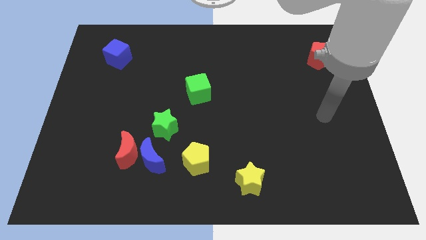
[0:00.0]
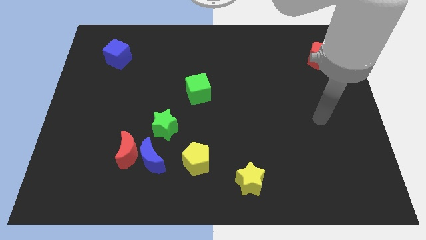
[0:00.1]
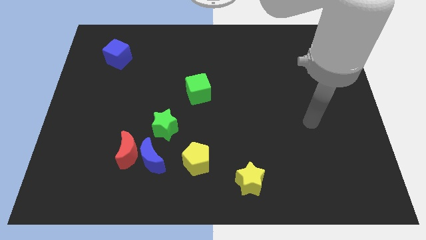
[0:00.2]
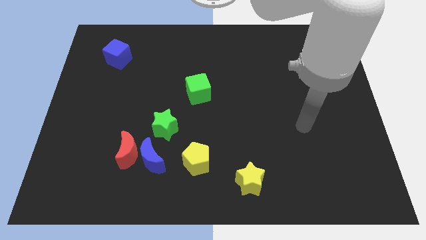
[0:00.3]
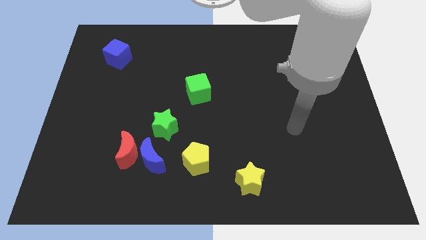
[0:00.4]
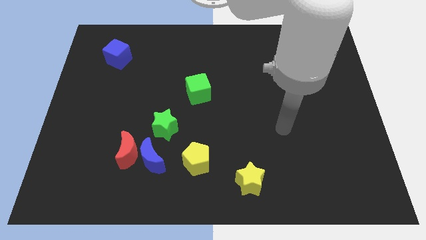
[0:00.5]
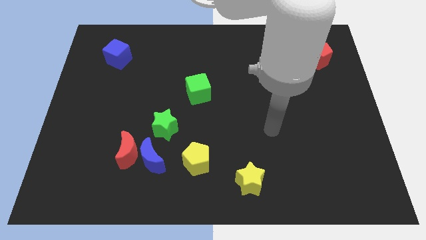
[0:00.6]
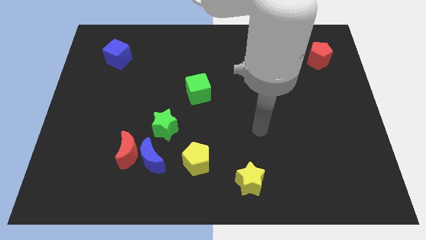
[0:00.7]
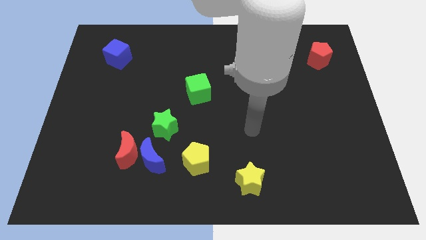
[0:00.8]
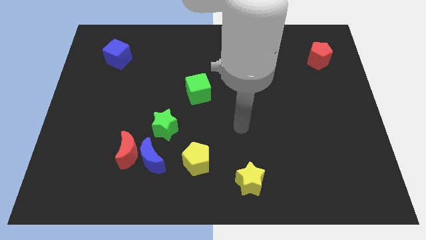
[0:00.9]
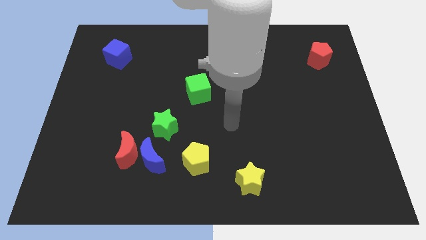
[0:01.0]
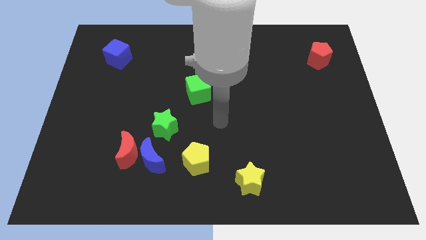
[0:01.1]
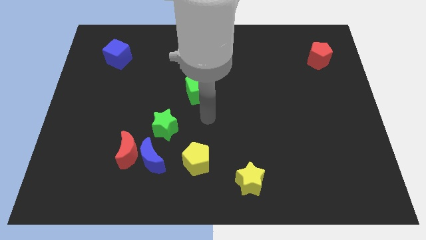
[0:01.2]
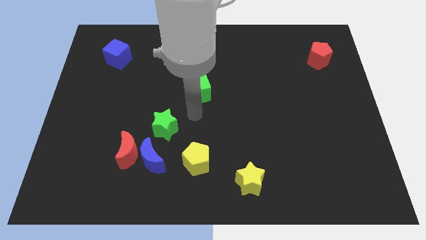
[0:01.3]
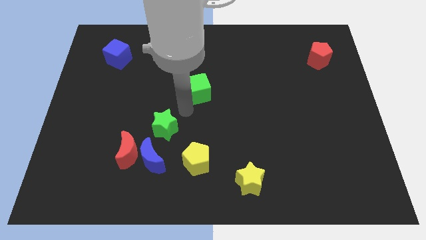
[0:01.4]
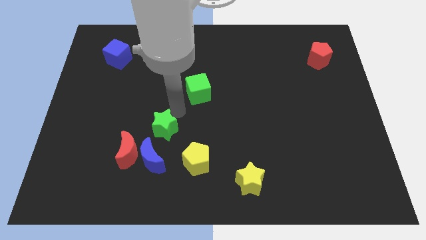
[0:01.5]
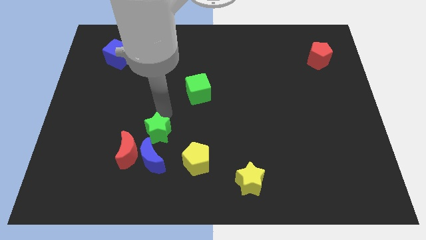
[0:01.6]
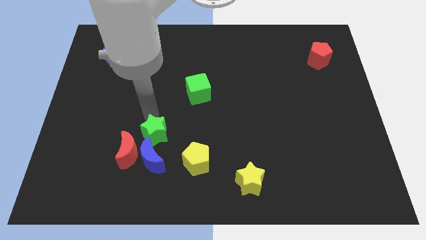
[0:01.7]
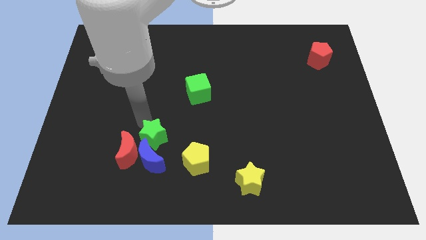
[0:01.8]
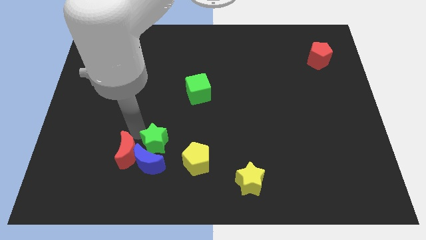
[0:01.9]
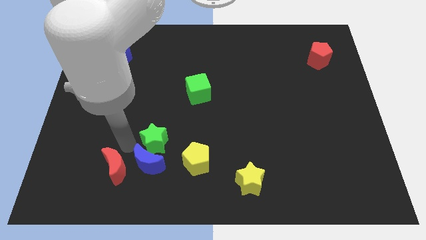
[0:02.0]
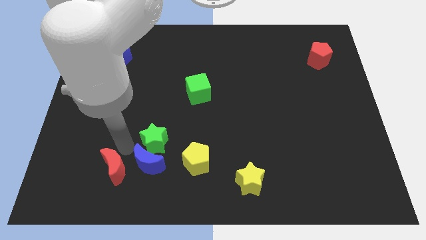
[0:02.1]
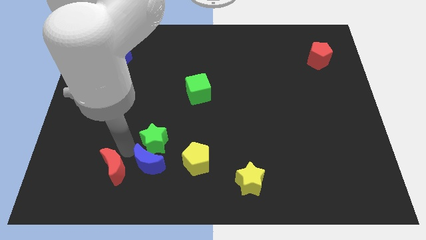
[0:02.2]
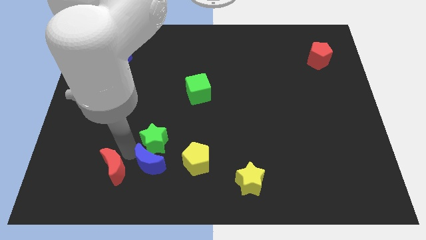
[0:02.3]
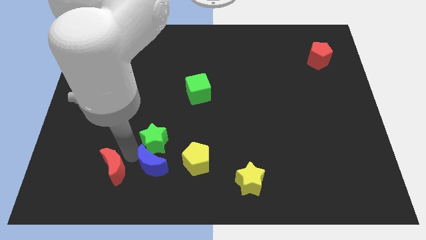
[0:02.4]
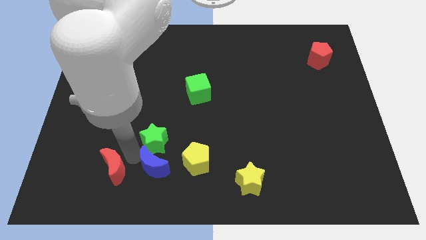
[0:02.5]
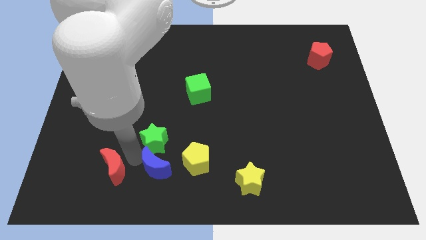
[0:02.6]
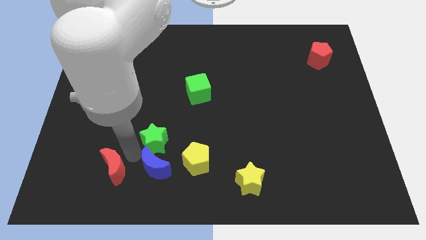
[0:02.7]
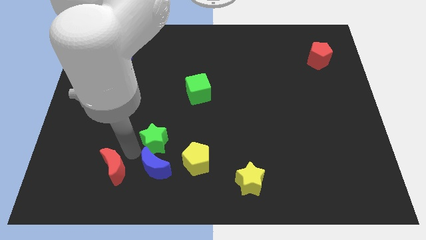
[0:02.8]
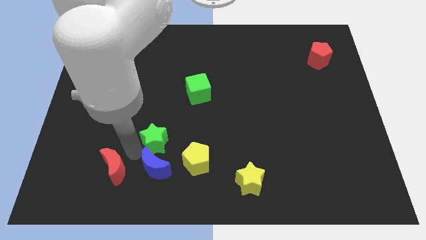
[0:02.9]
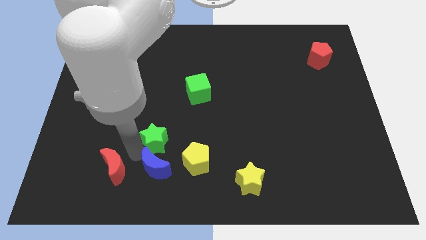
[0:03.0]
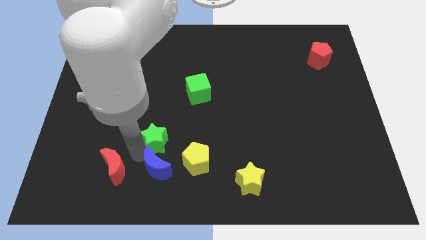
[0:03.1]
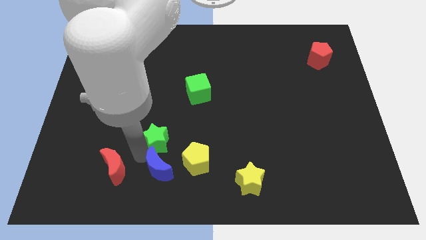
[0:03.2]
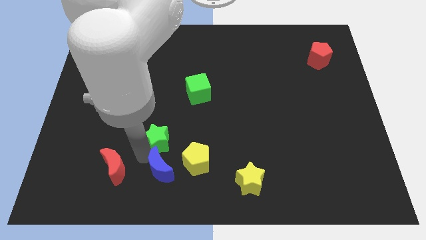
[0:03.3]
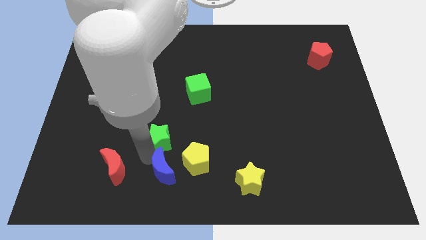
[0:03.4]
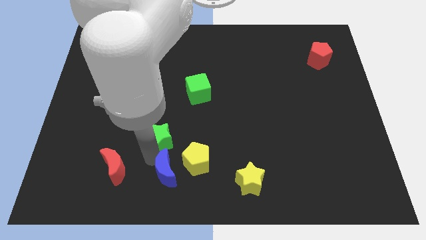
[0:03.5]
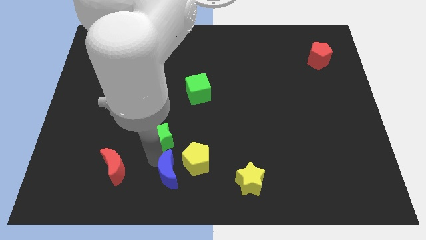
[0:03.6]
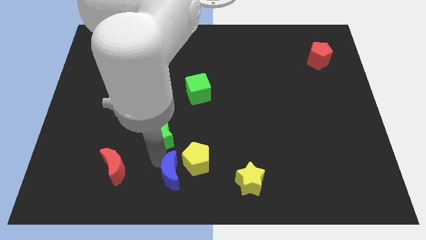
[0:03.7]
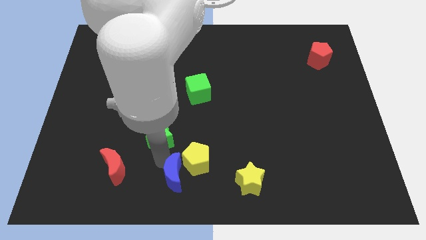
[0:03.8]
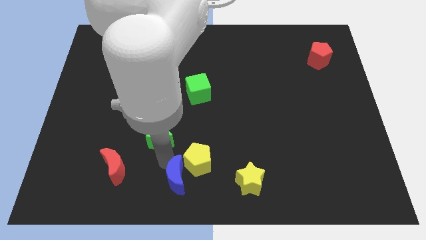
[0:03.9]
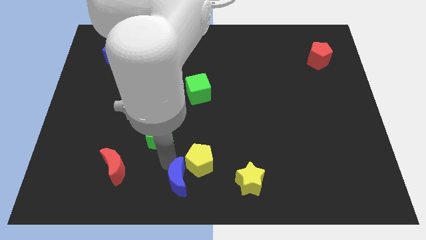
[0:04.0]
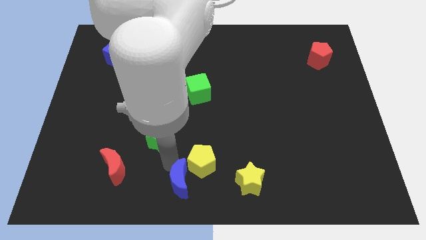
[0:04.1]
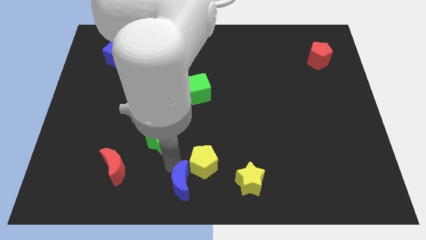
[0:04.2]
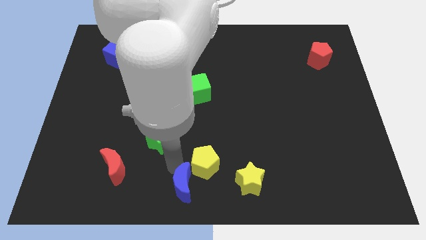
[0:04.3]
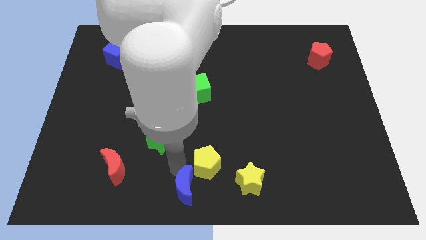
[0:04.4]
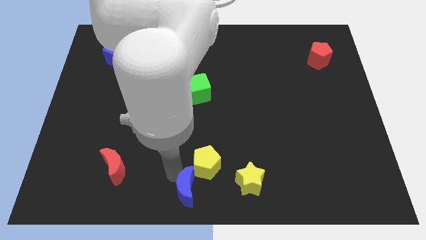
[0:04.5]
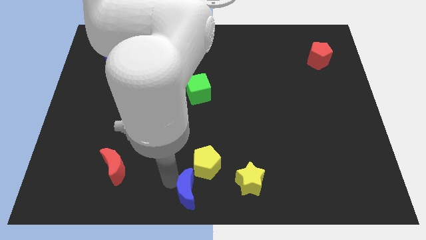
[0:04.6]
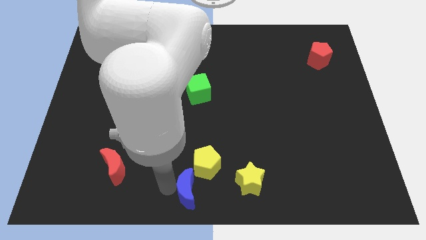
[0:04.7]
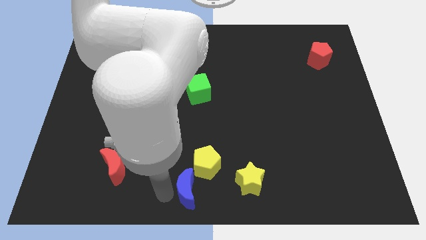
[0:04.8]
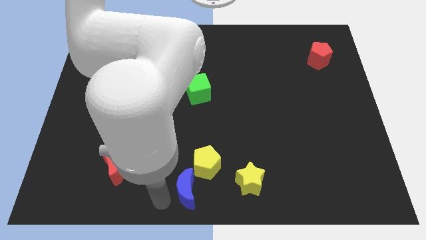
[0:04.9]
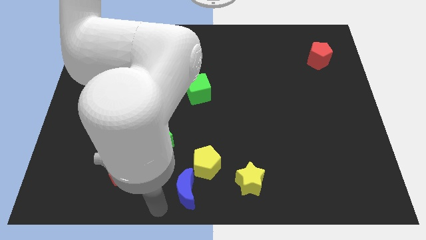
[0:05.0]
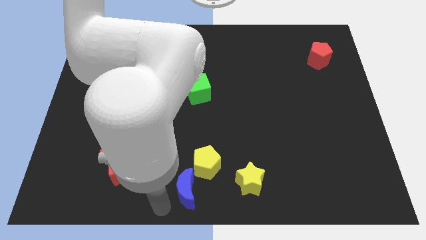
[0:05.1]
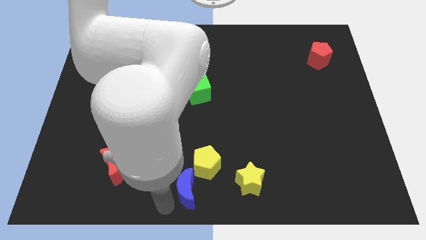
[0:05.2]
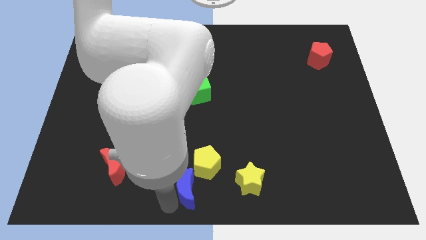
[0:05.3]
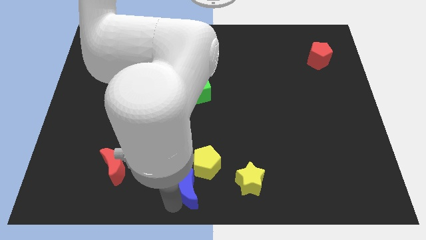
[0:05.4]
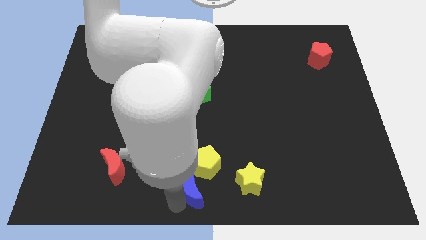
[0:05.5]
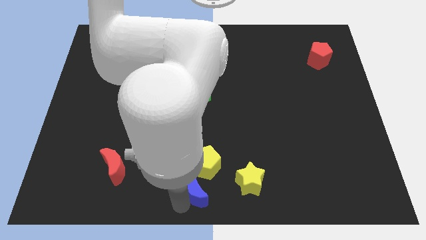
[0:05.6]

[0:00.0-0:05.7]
slightly slide the blue moon to the right

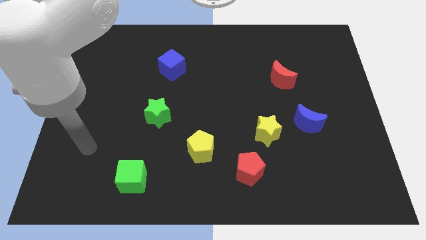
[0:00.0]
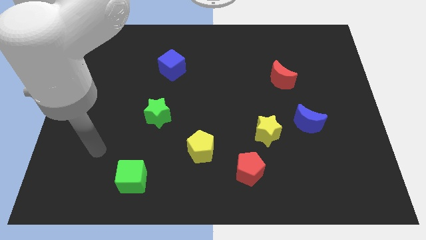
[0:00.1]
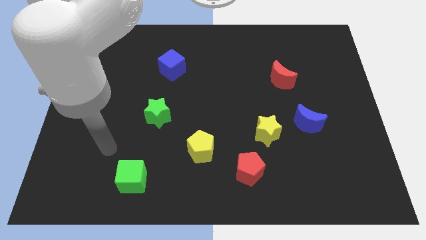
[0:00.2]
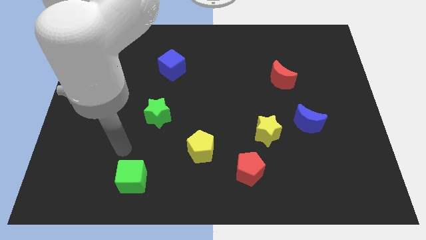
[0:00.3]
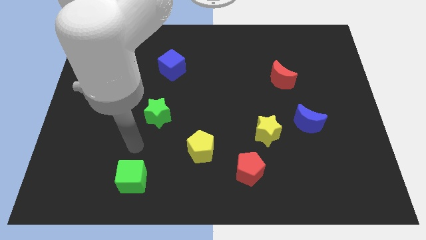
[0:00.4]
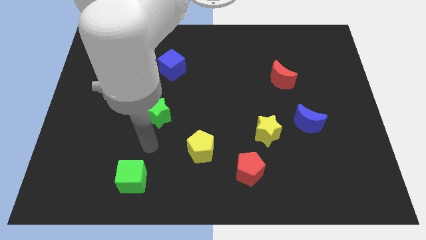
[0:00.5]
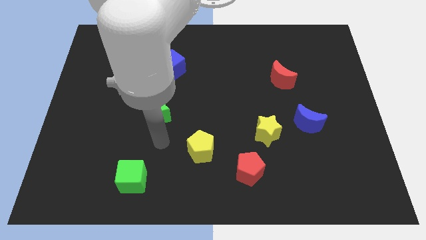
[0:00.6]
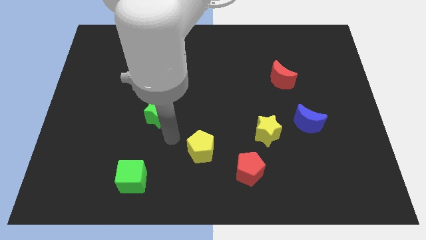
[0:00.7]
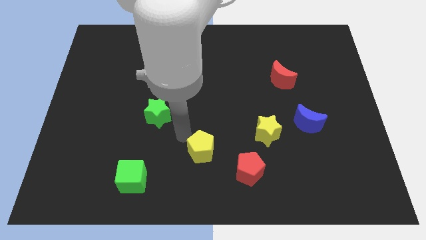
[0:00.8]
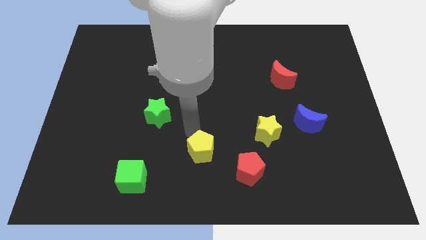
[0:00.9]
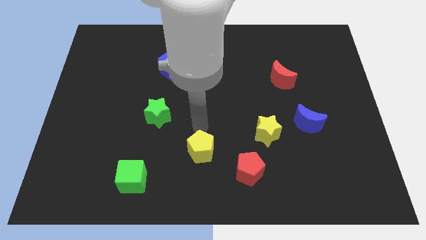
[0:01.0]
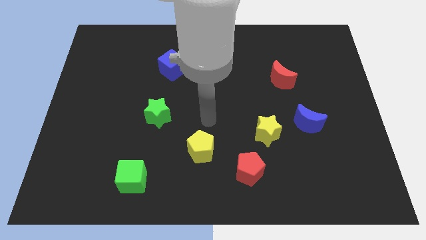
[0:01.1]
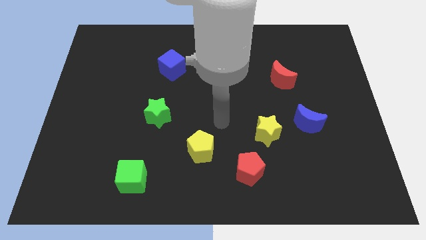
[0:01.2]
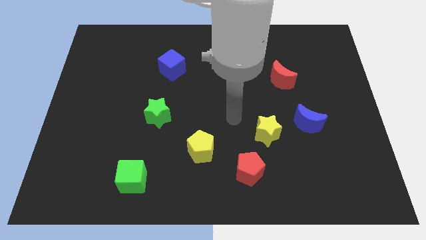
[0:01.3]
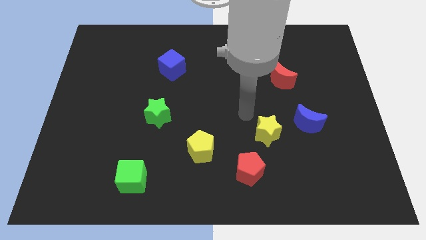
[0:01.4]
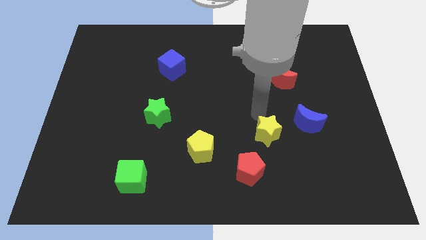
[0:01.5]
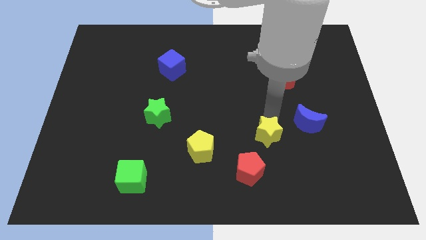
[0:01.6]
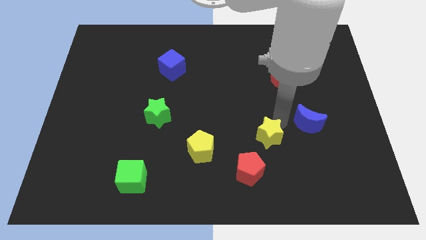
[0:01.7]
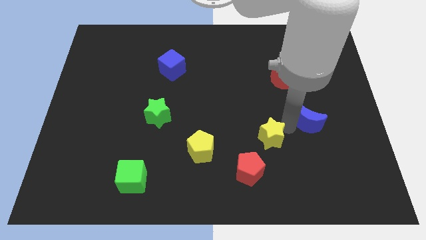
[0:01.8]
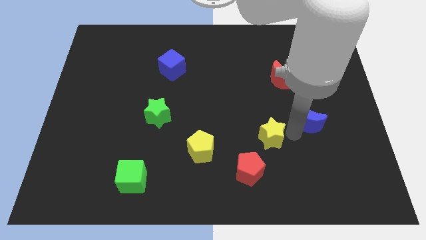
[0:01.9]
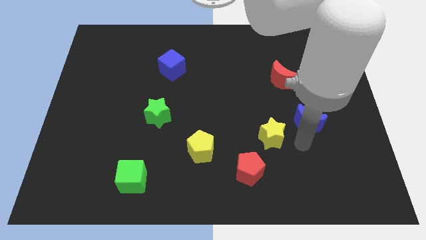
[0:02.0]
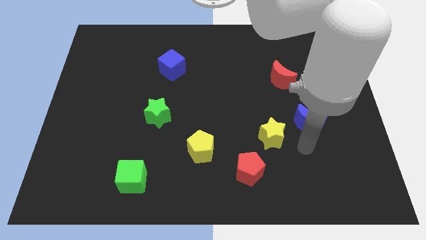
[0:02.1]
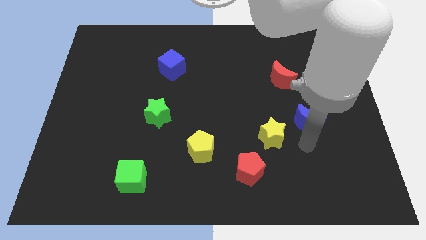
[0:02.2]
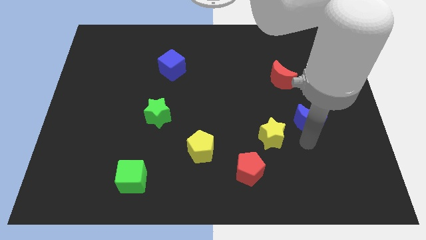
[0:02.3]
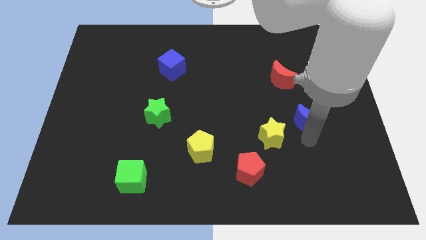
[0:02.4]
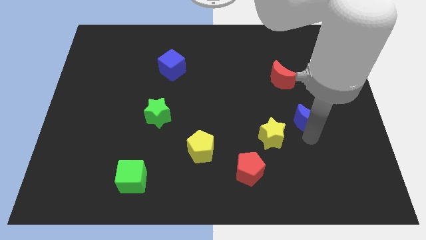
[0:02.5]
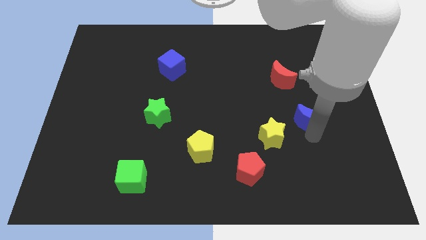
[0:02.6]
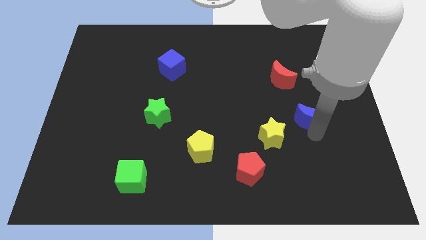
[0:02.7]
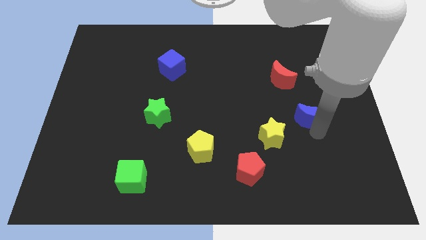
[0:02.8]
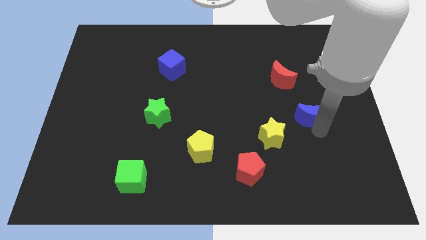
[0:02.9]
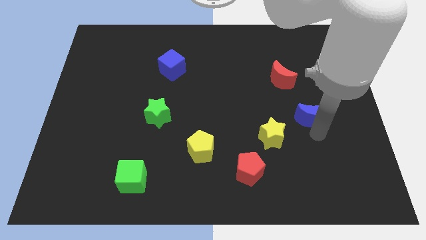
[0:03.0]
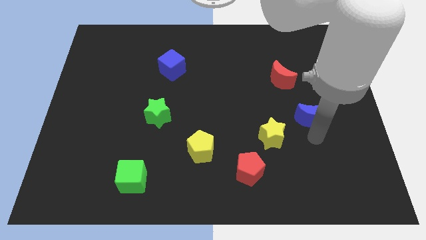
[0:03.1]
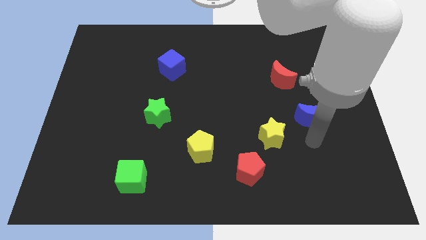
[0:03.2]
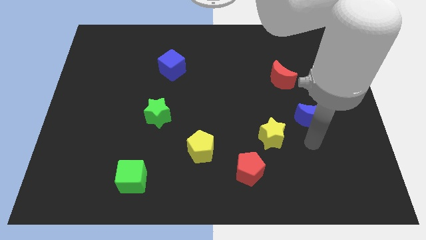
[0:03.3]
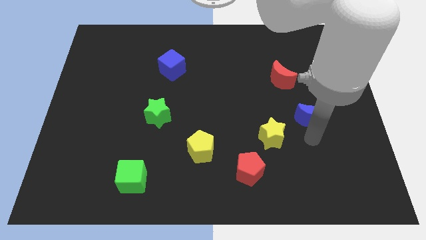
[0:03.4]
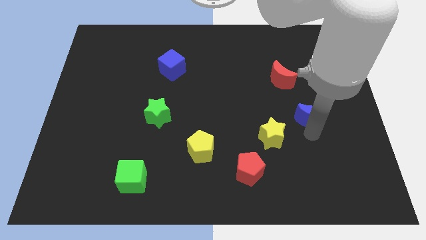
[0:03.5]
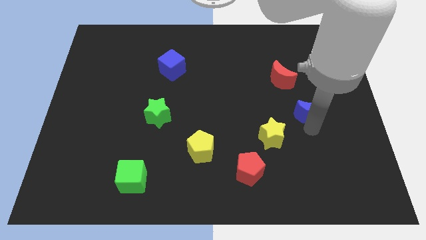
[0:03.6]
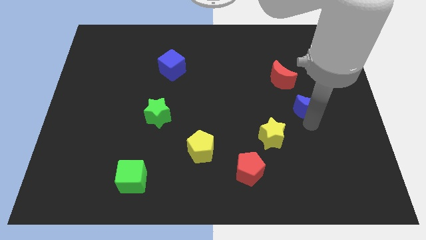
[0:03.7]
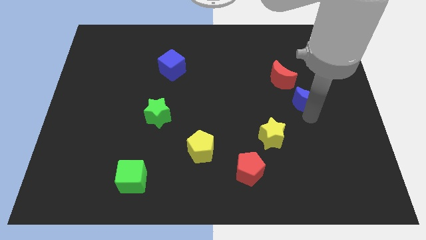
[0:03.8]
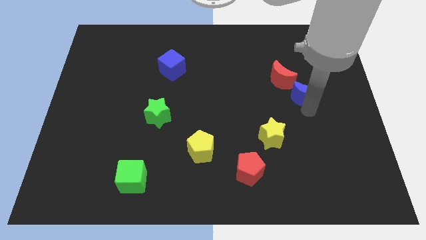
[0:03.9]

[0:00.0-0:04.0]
slightly push the blue moon up
